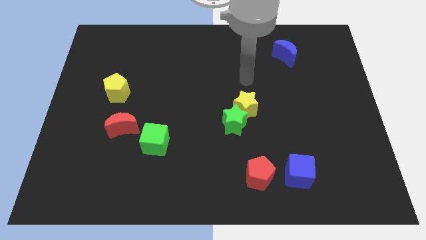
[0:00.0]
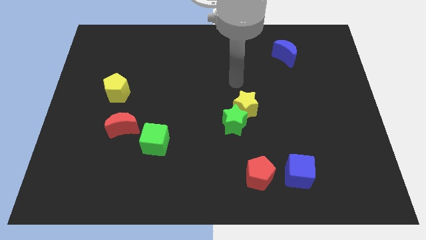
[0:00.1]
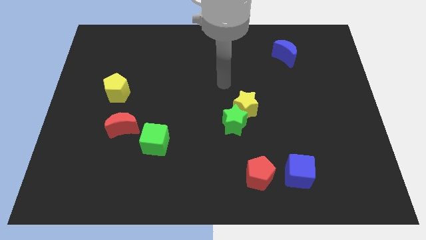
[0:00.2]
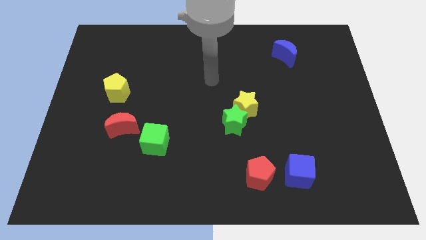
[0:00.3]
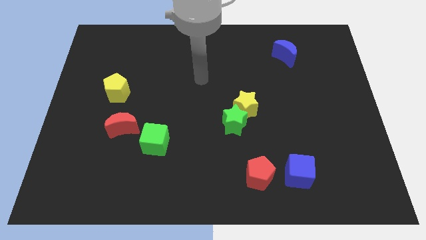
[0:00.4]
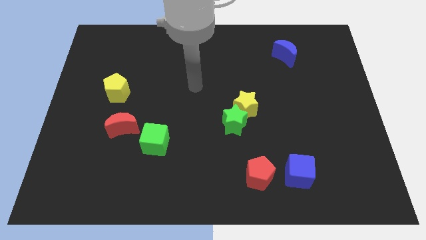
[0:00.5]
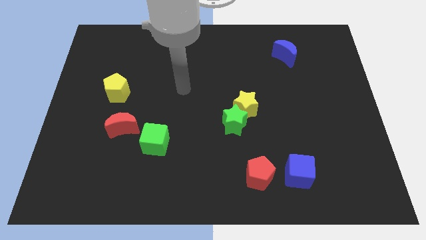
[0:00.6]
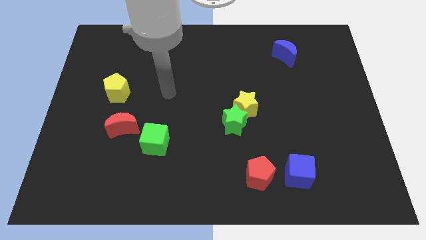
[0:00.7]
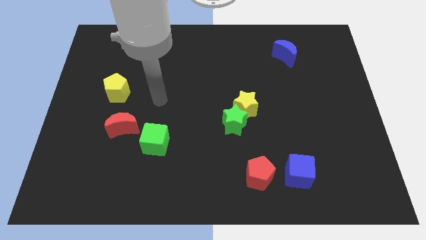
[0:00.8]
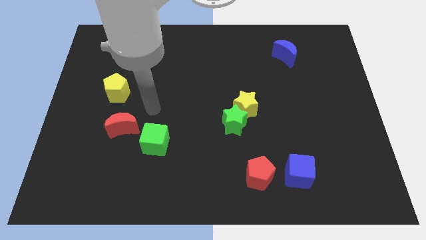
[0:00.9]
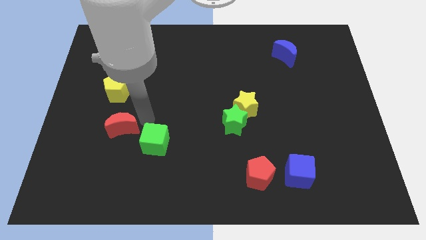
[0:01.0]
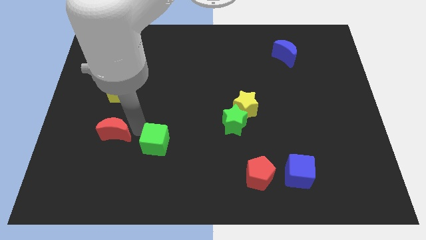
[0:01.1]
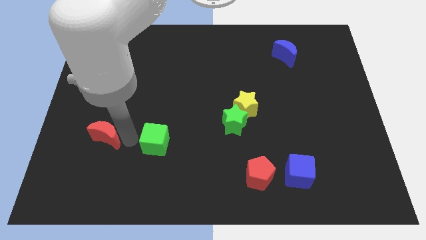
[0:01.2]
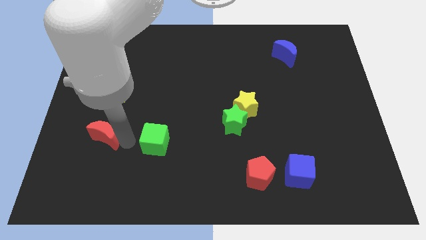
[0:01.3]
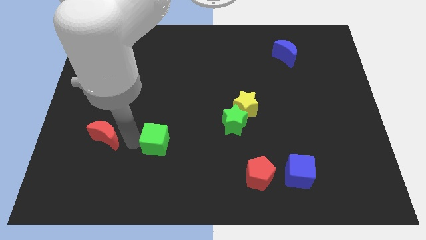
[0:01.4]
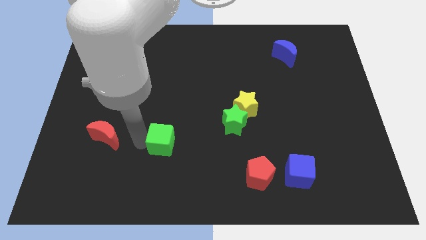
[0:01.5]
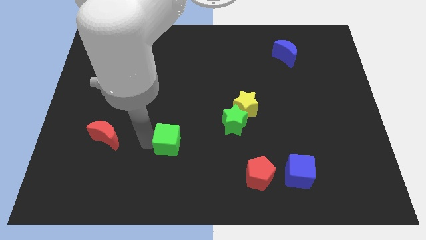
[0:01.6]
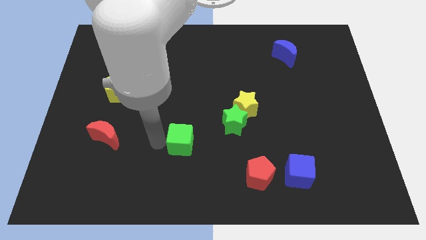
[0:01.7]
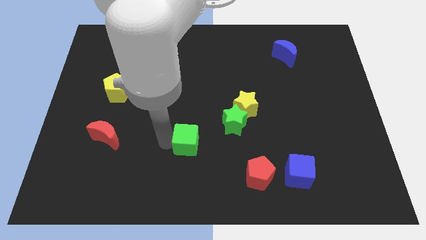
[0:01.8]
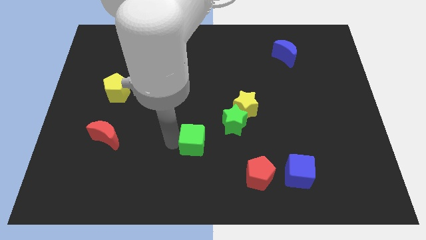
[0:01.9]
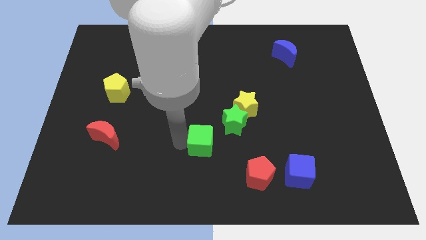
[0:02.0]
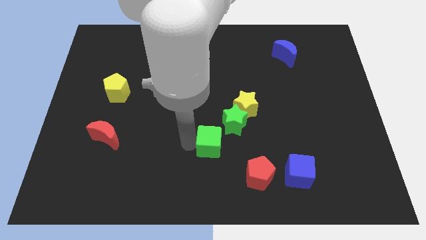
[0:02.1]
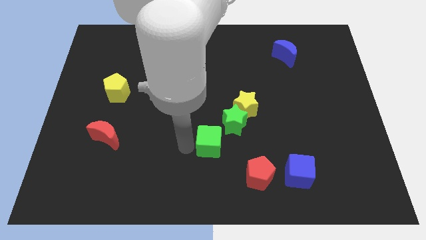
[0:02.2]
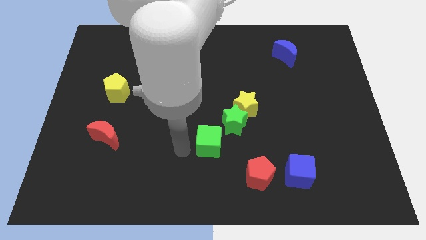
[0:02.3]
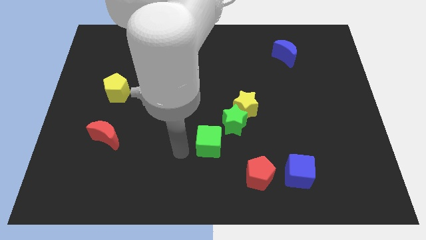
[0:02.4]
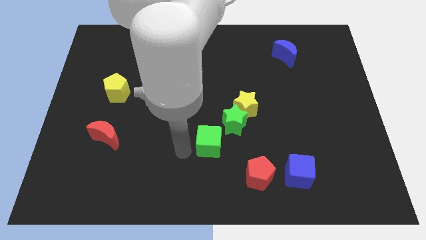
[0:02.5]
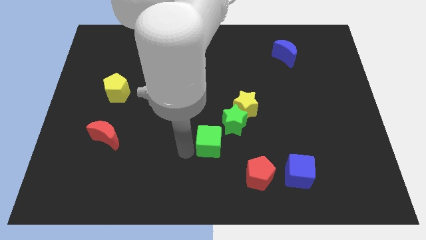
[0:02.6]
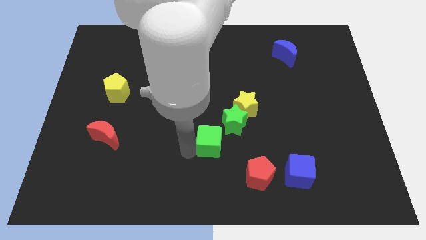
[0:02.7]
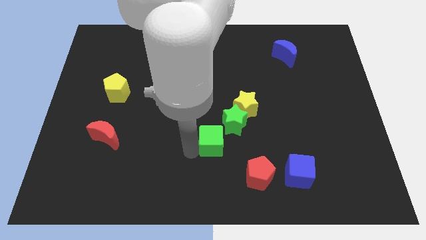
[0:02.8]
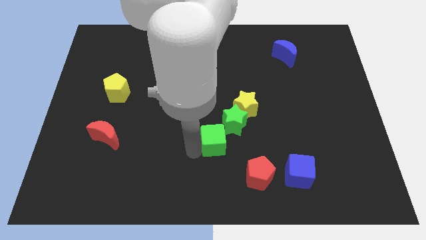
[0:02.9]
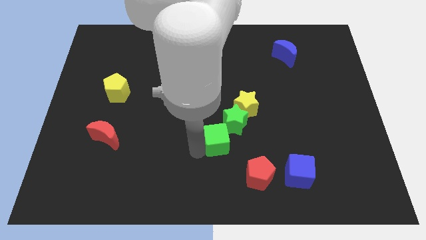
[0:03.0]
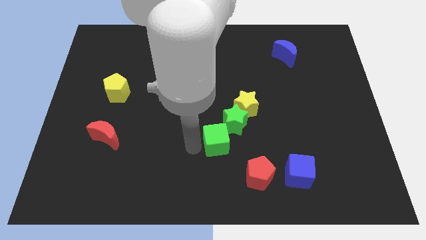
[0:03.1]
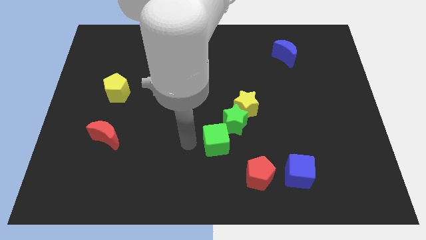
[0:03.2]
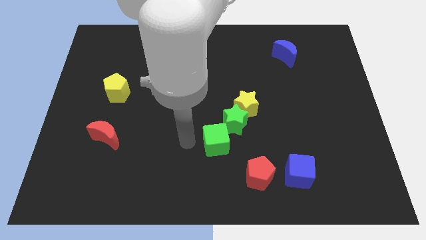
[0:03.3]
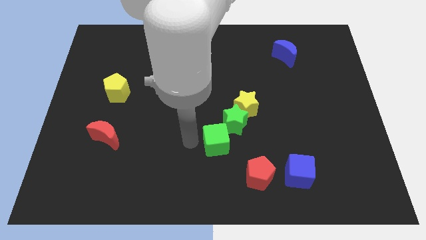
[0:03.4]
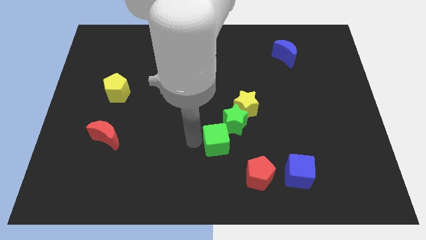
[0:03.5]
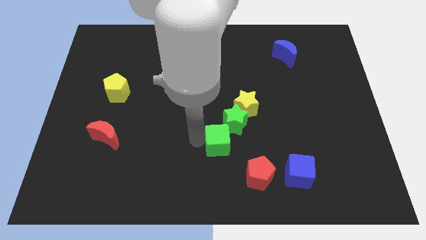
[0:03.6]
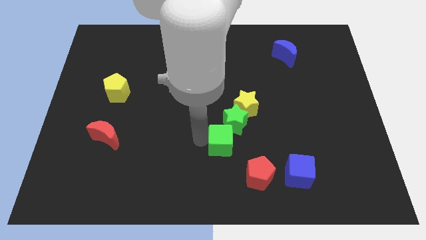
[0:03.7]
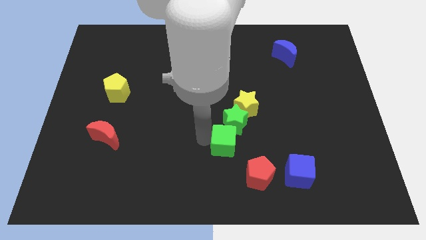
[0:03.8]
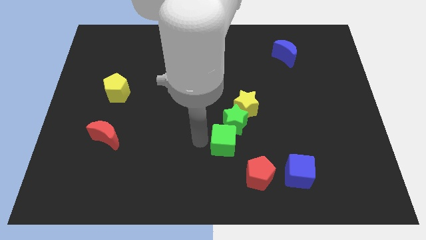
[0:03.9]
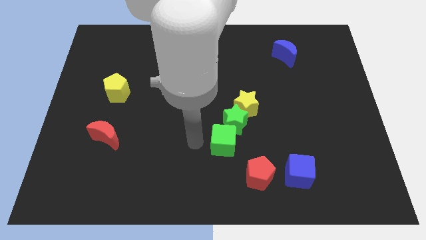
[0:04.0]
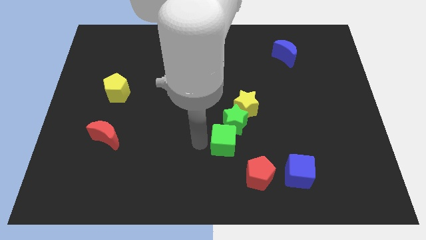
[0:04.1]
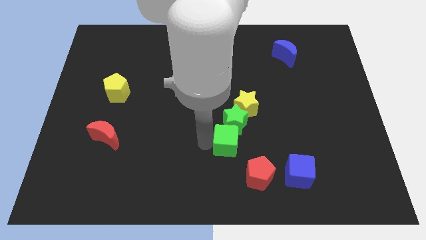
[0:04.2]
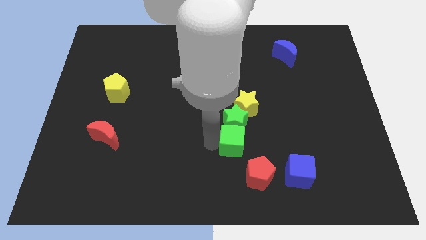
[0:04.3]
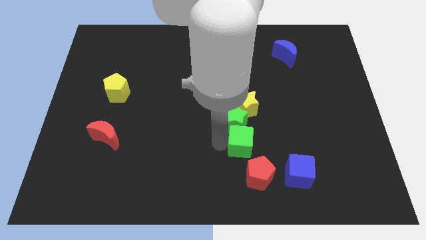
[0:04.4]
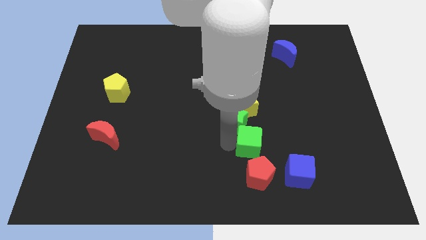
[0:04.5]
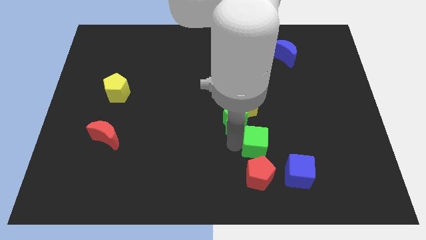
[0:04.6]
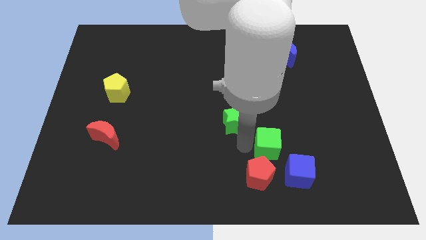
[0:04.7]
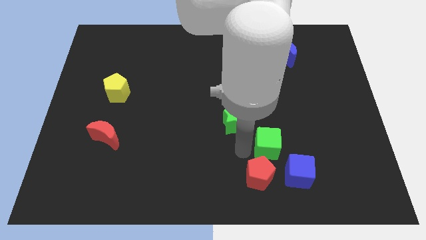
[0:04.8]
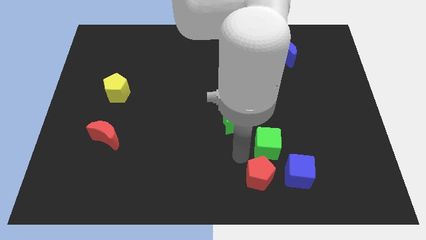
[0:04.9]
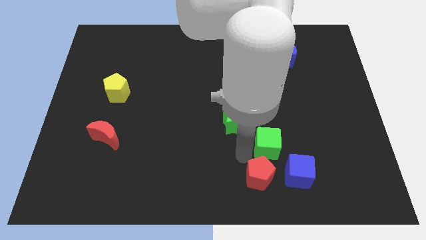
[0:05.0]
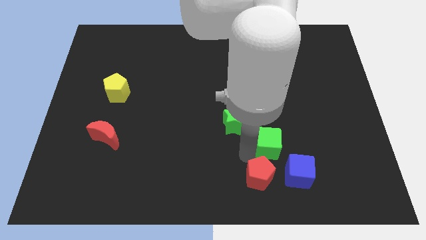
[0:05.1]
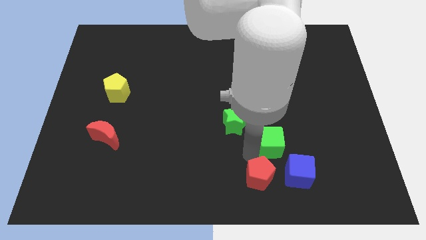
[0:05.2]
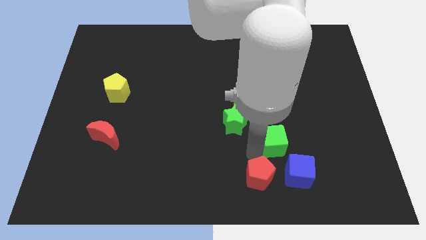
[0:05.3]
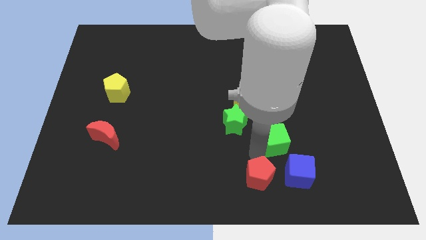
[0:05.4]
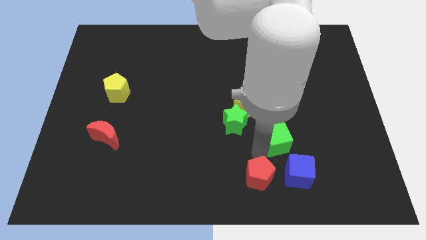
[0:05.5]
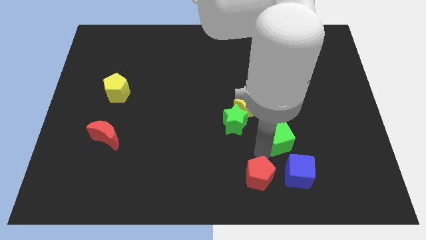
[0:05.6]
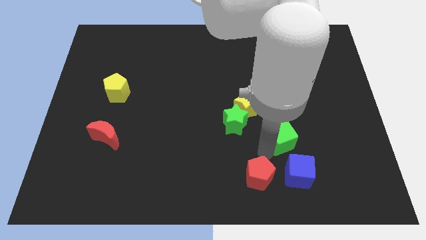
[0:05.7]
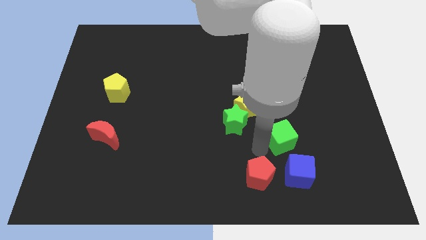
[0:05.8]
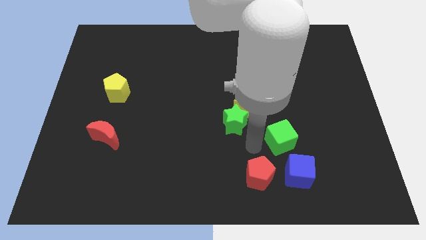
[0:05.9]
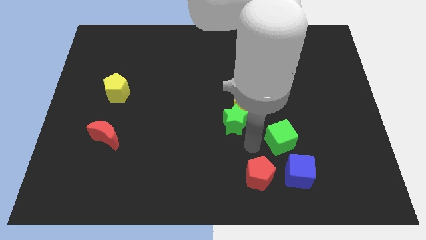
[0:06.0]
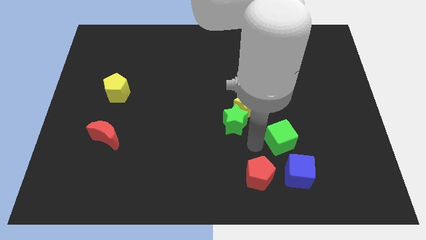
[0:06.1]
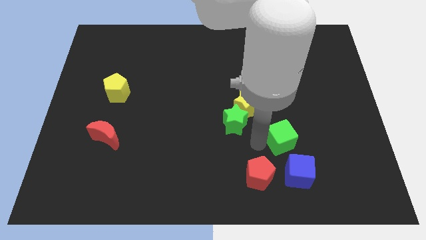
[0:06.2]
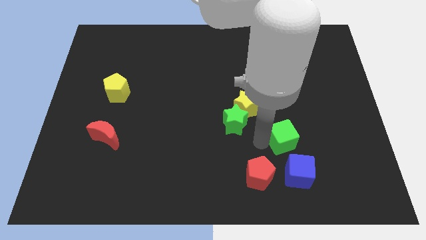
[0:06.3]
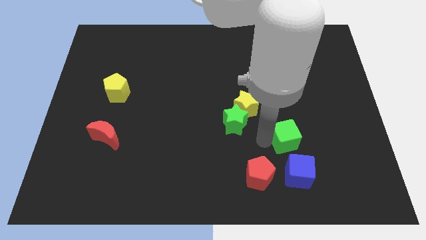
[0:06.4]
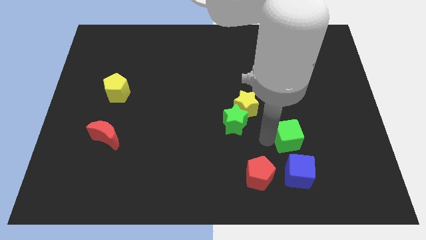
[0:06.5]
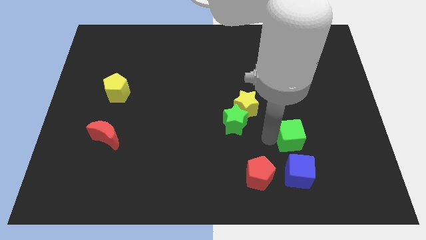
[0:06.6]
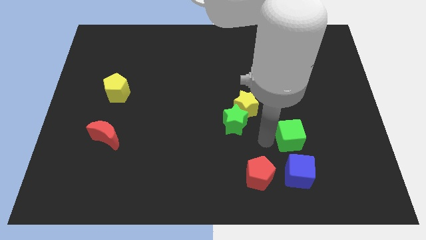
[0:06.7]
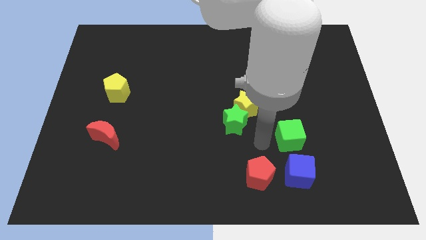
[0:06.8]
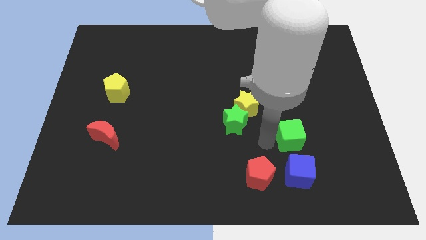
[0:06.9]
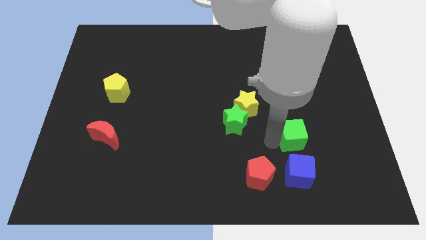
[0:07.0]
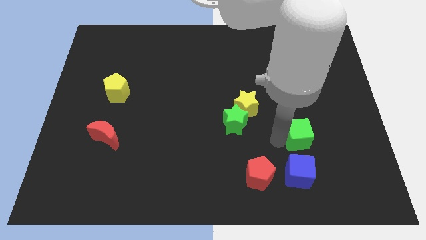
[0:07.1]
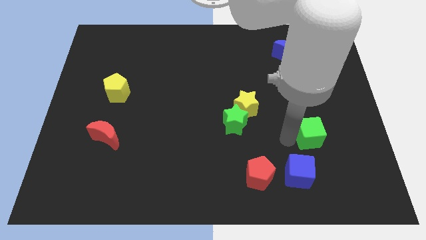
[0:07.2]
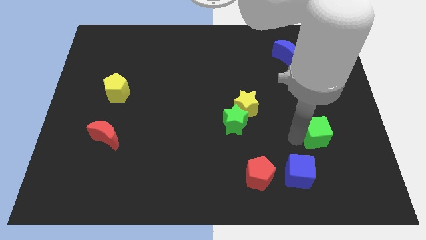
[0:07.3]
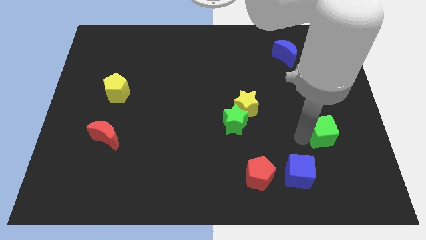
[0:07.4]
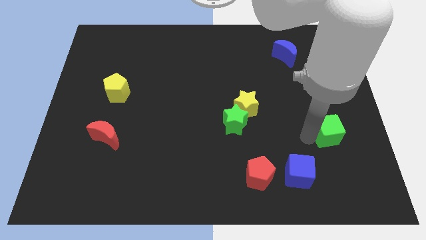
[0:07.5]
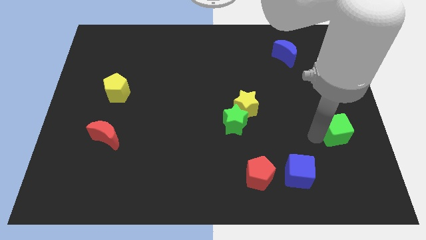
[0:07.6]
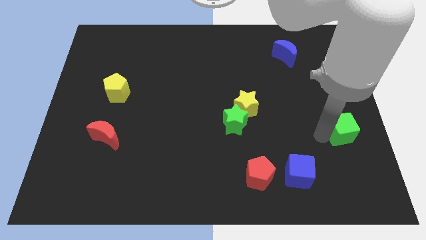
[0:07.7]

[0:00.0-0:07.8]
move the green cube to the right side of the board
